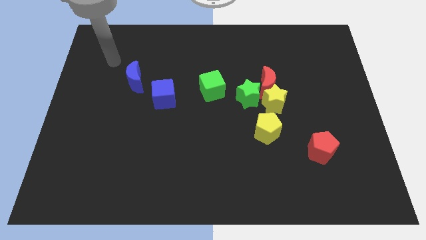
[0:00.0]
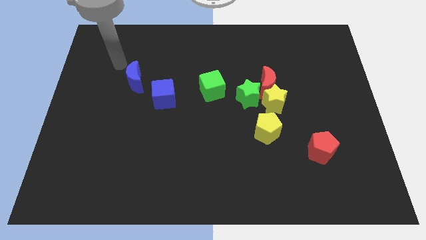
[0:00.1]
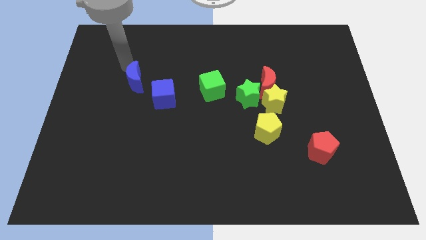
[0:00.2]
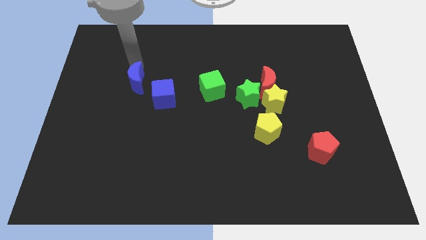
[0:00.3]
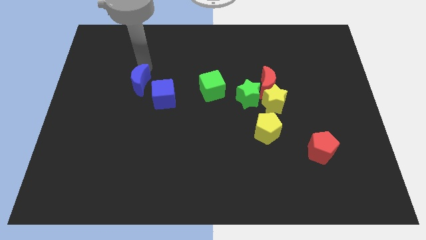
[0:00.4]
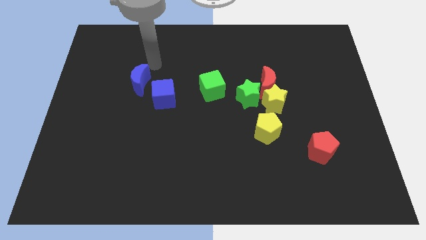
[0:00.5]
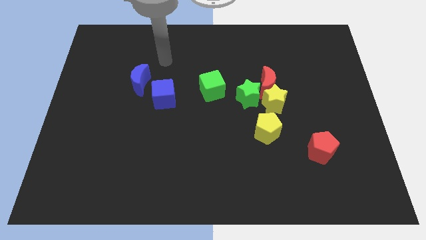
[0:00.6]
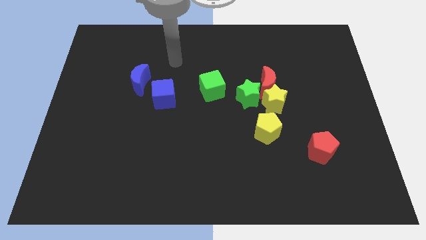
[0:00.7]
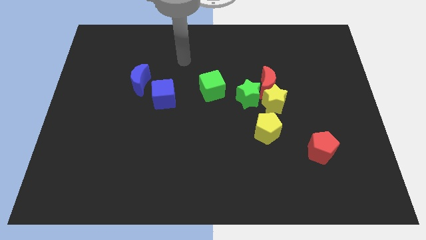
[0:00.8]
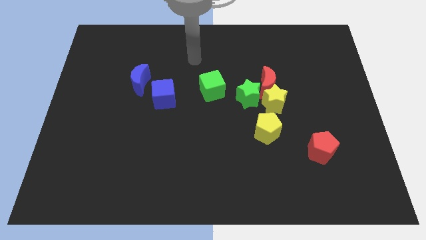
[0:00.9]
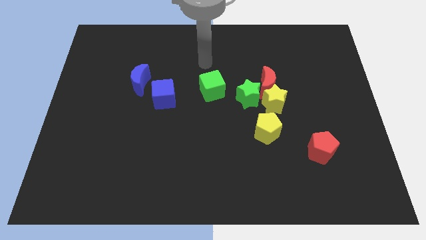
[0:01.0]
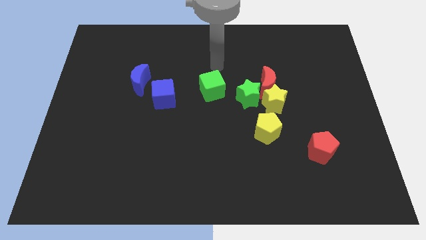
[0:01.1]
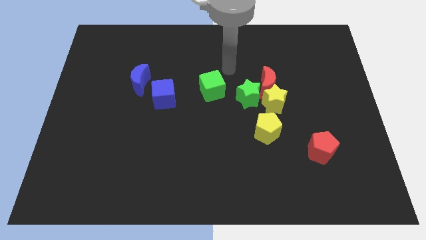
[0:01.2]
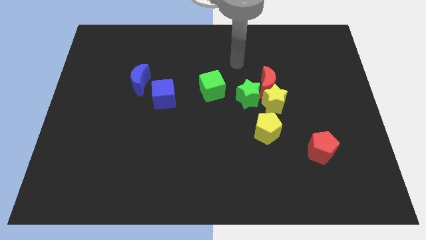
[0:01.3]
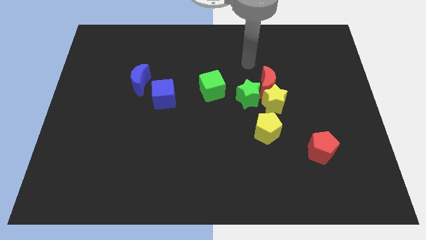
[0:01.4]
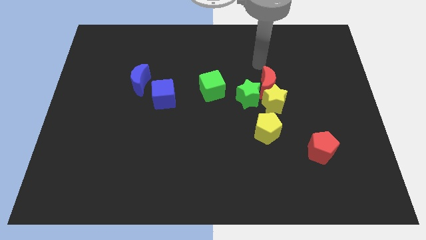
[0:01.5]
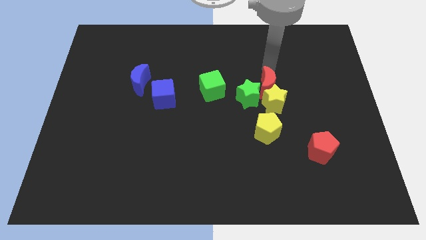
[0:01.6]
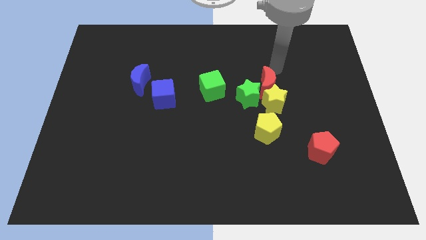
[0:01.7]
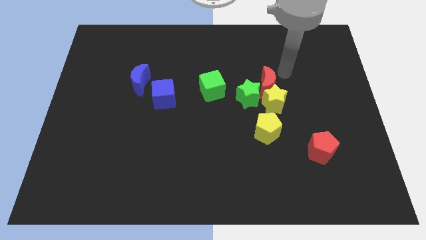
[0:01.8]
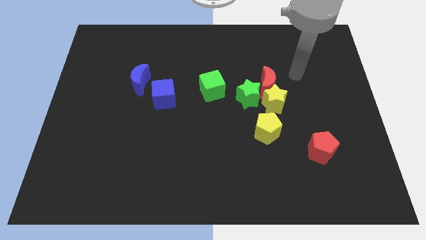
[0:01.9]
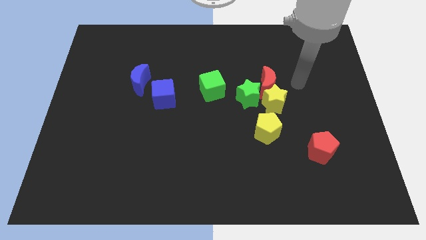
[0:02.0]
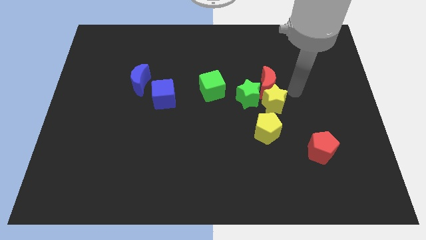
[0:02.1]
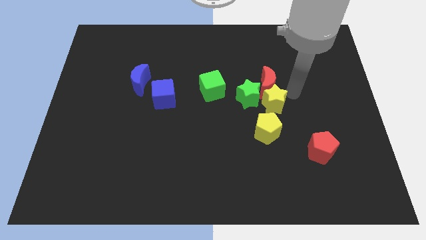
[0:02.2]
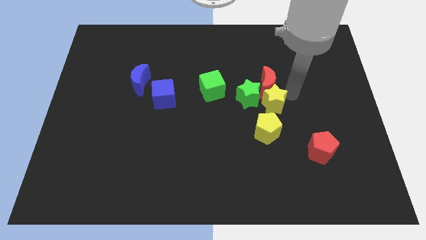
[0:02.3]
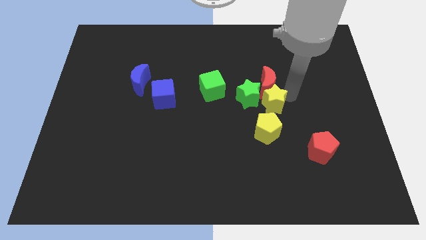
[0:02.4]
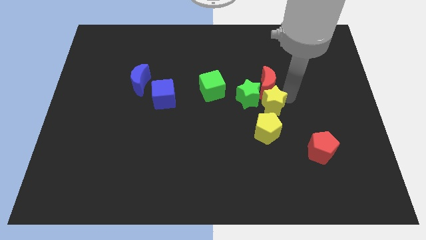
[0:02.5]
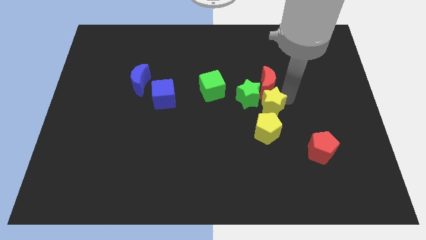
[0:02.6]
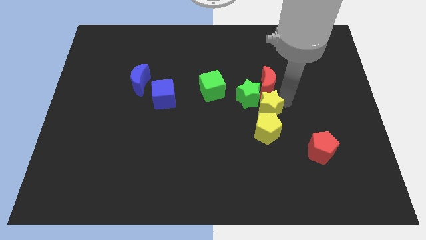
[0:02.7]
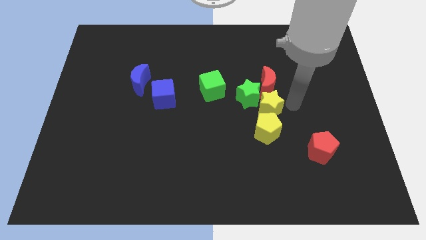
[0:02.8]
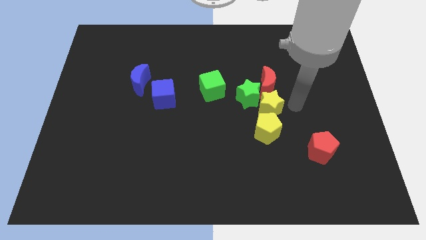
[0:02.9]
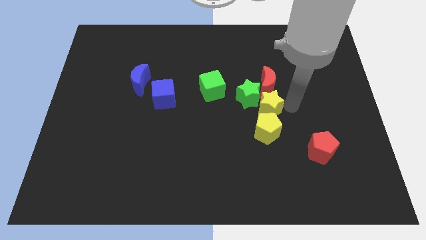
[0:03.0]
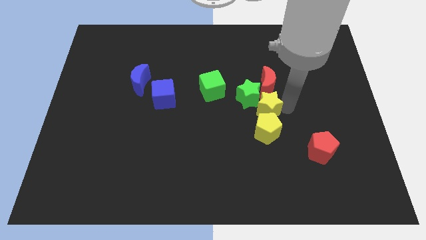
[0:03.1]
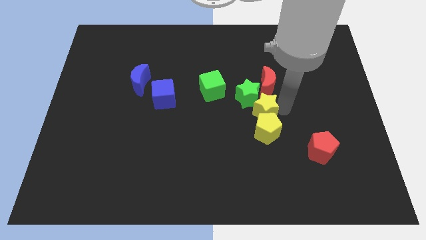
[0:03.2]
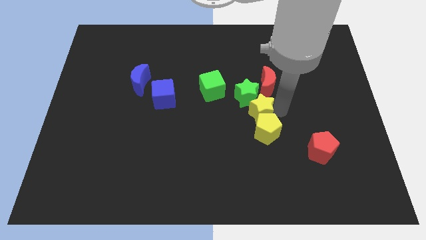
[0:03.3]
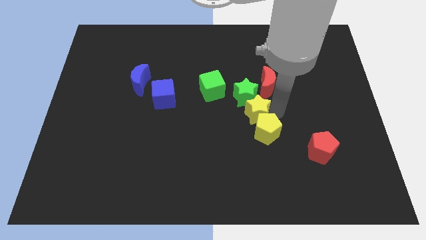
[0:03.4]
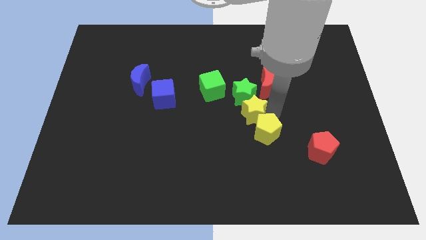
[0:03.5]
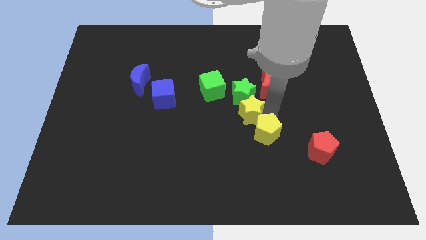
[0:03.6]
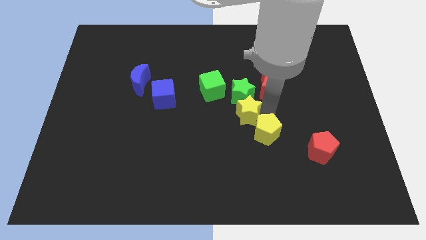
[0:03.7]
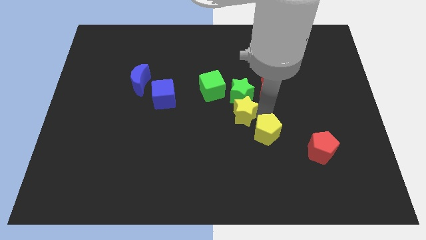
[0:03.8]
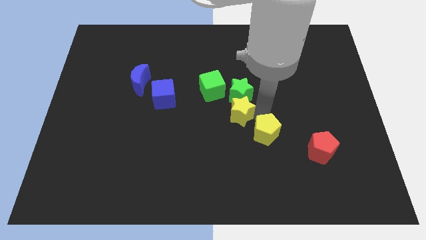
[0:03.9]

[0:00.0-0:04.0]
slightly move the yellow star left

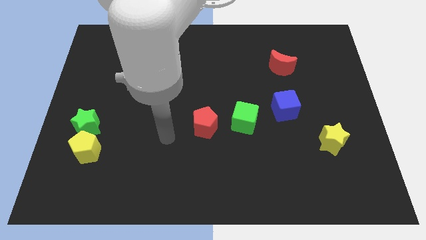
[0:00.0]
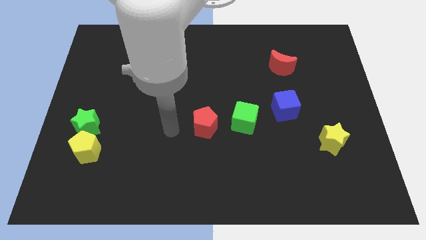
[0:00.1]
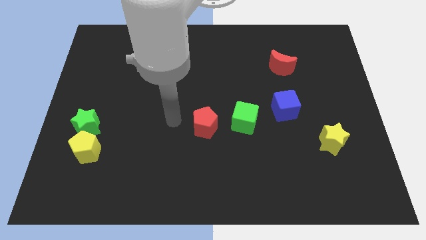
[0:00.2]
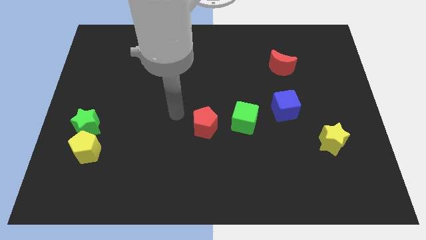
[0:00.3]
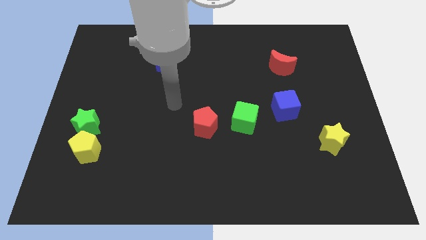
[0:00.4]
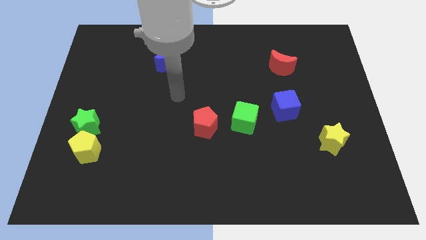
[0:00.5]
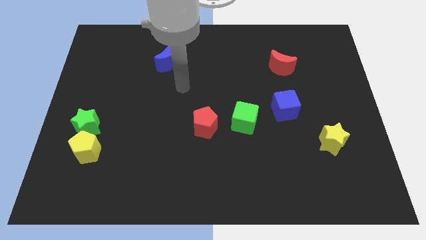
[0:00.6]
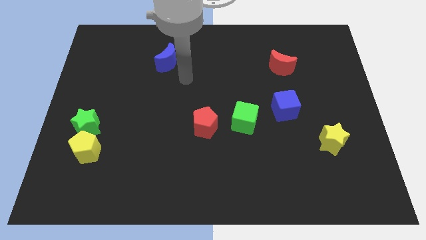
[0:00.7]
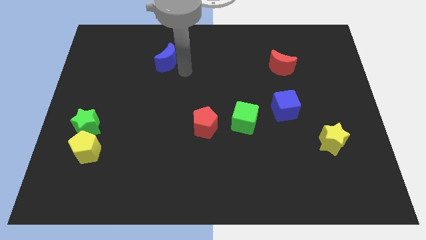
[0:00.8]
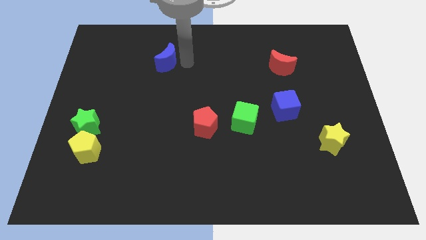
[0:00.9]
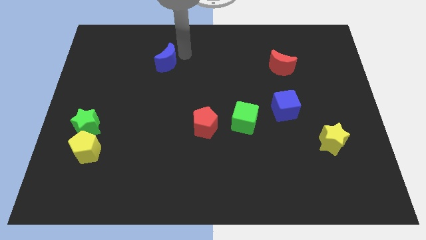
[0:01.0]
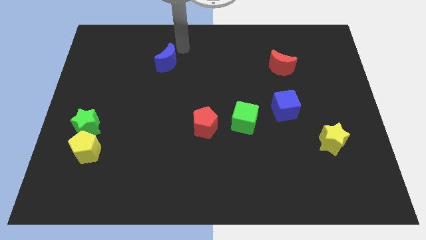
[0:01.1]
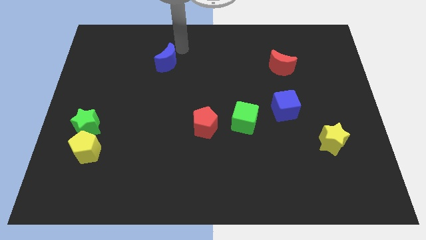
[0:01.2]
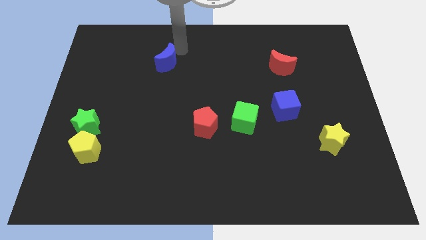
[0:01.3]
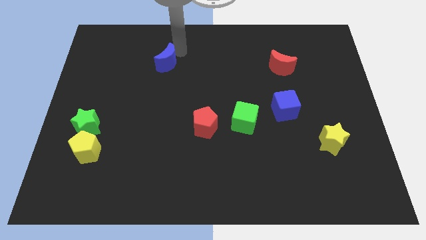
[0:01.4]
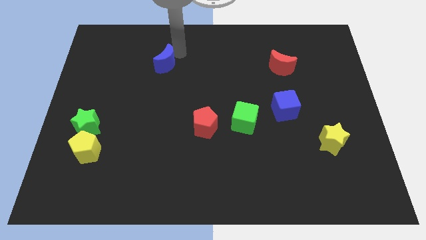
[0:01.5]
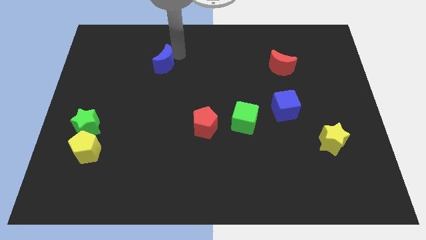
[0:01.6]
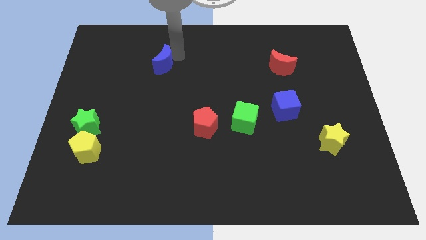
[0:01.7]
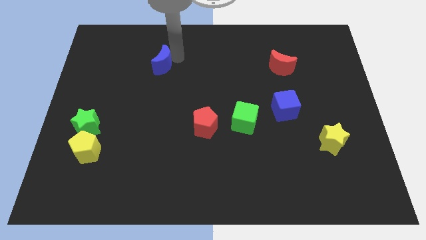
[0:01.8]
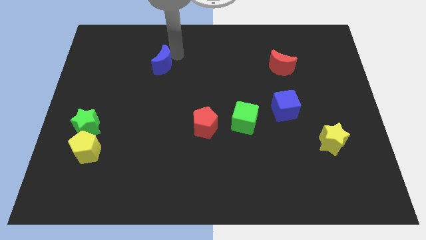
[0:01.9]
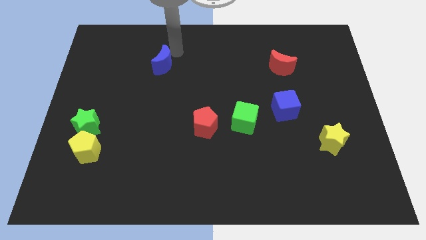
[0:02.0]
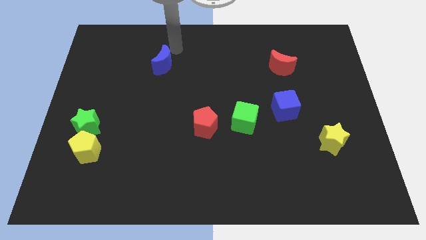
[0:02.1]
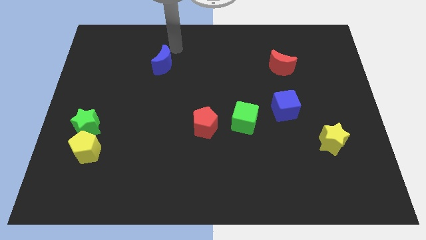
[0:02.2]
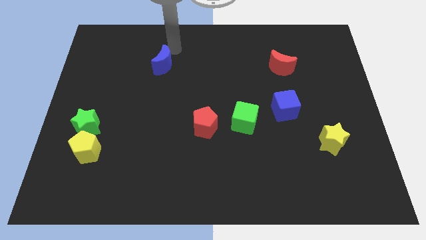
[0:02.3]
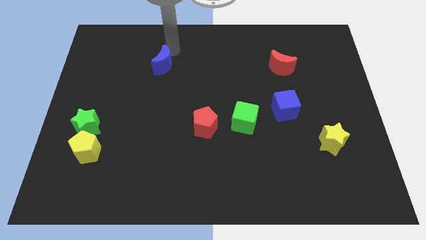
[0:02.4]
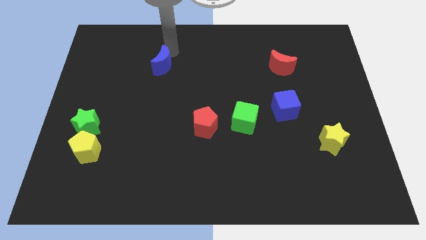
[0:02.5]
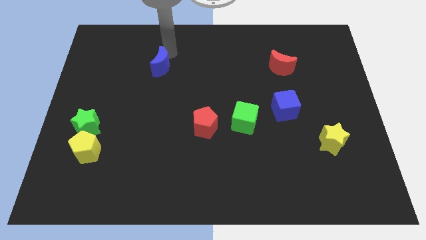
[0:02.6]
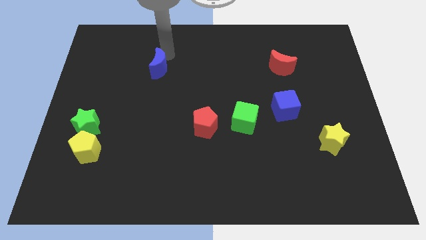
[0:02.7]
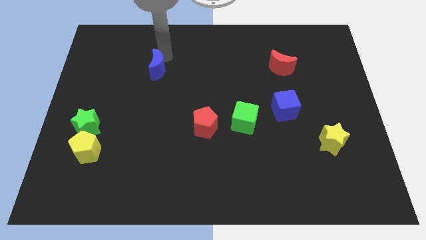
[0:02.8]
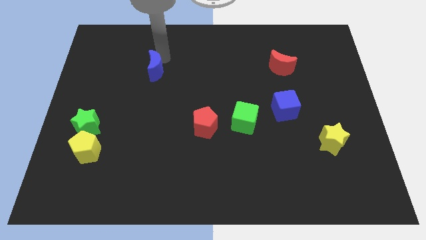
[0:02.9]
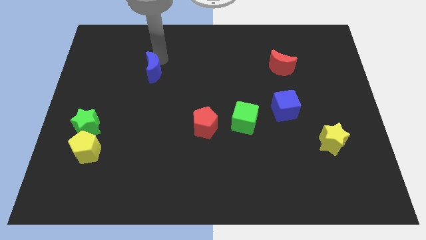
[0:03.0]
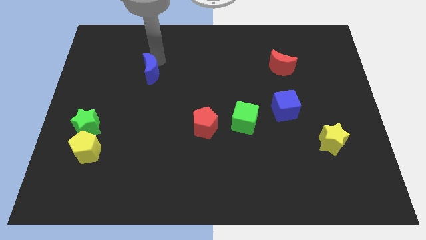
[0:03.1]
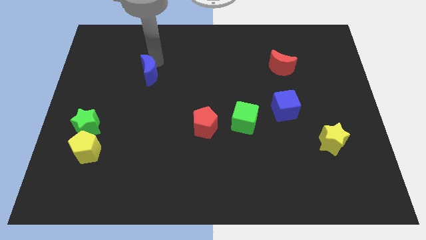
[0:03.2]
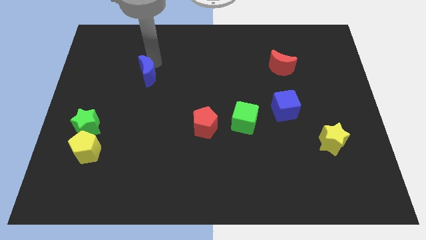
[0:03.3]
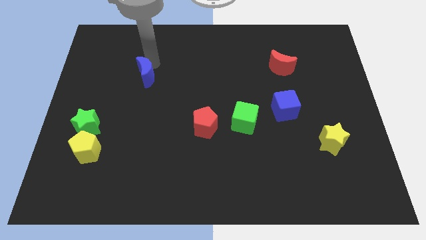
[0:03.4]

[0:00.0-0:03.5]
push the blue moon down and to the left a bit

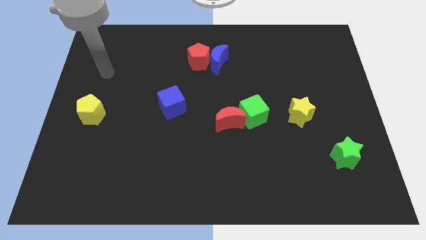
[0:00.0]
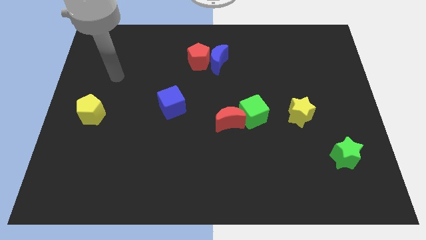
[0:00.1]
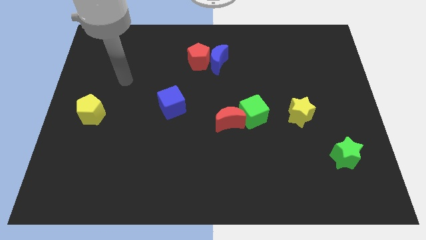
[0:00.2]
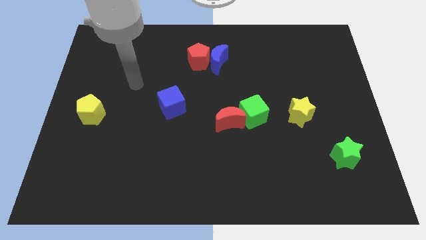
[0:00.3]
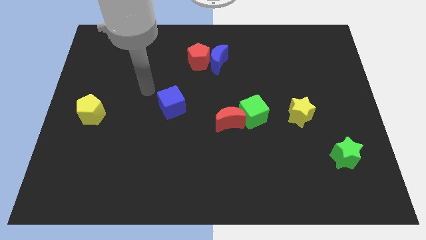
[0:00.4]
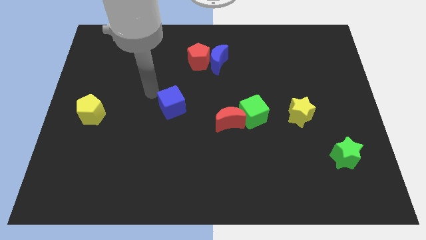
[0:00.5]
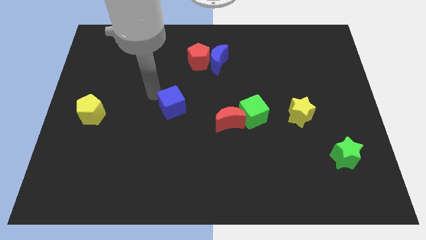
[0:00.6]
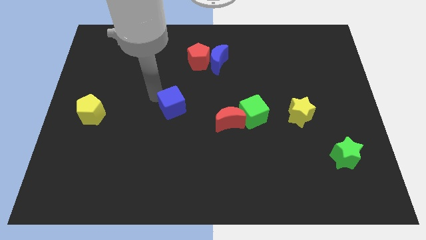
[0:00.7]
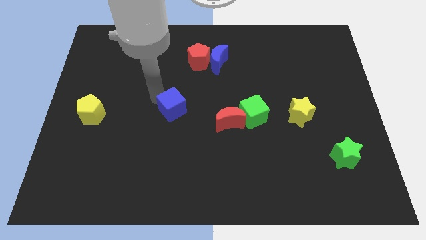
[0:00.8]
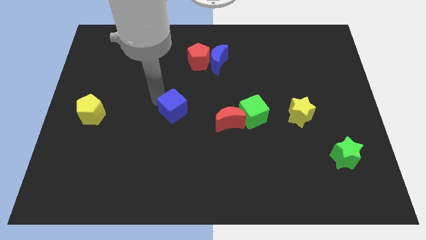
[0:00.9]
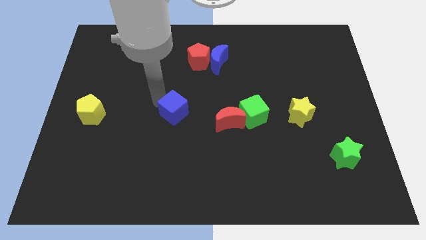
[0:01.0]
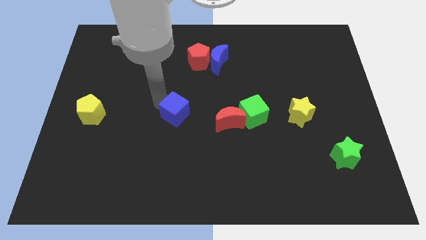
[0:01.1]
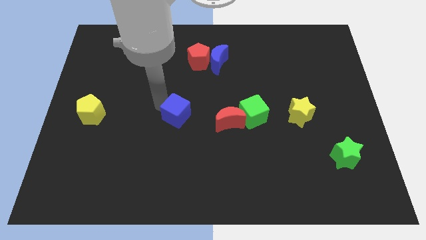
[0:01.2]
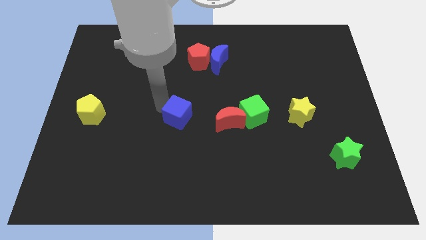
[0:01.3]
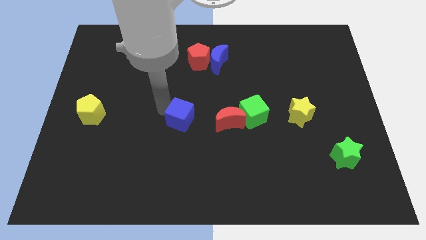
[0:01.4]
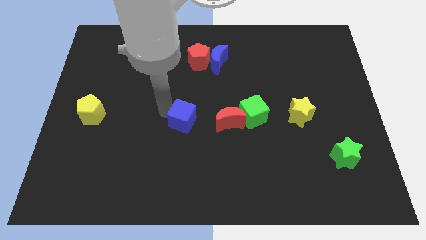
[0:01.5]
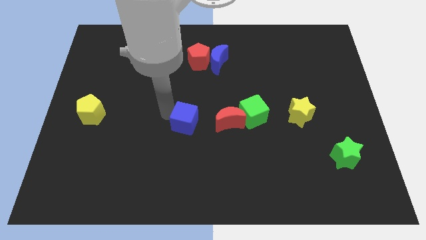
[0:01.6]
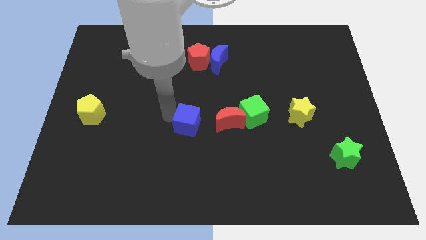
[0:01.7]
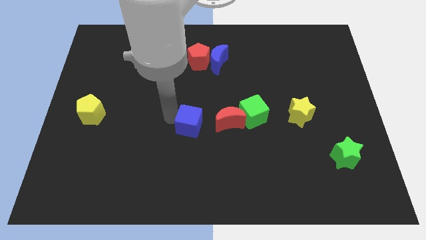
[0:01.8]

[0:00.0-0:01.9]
push the blue cube down and then to the right a bit
